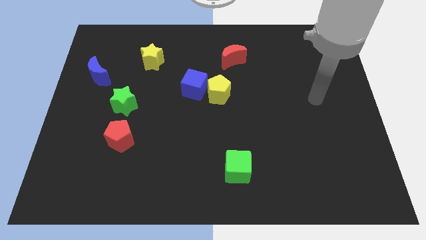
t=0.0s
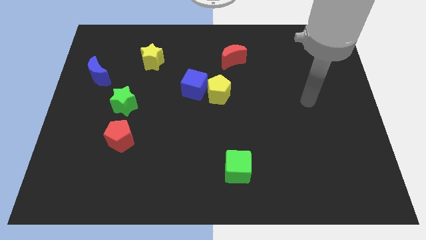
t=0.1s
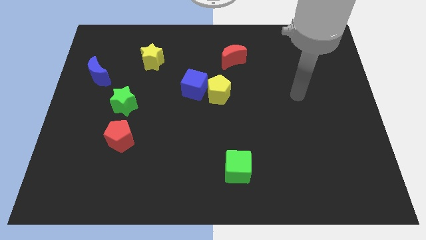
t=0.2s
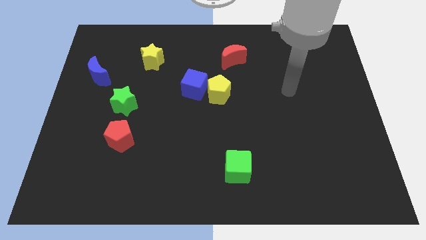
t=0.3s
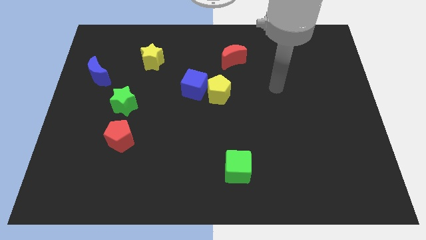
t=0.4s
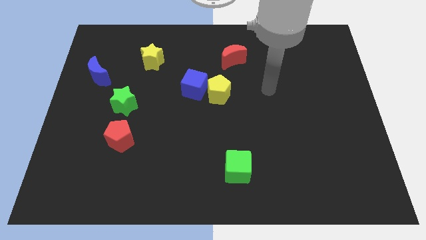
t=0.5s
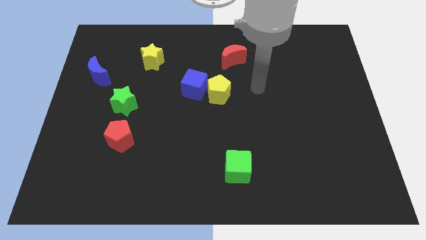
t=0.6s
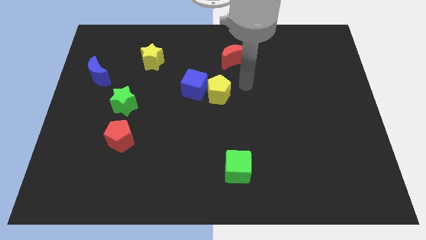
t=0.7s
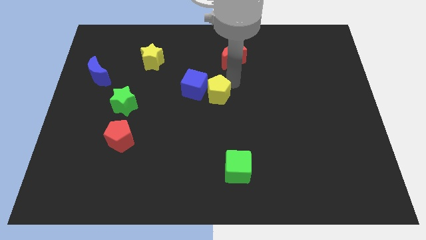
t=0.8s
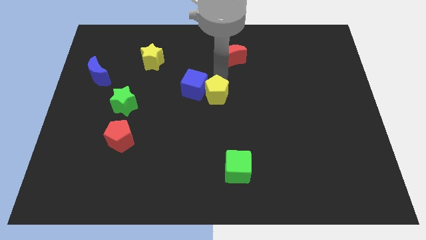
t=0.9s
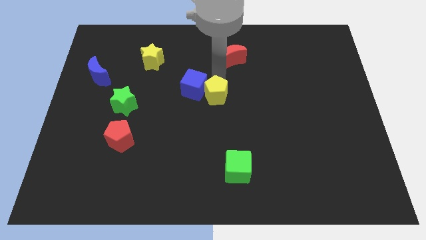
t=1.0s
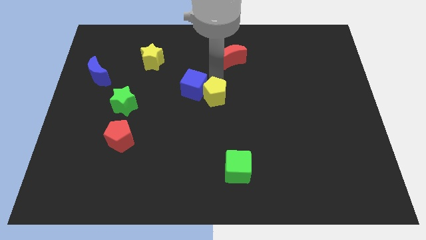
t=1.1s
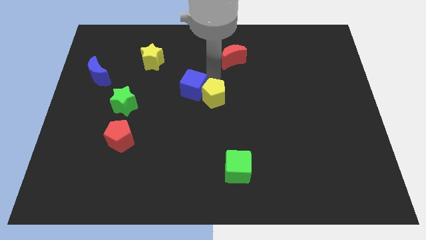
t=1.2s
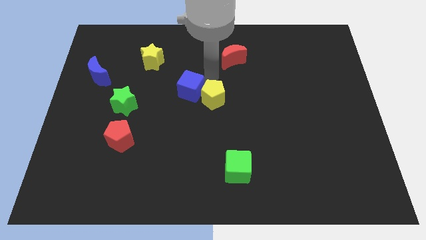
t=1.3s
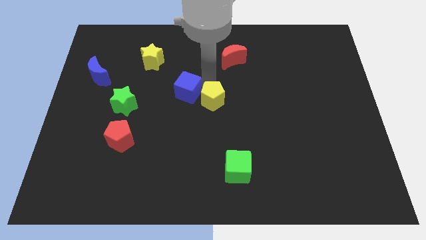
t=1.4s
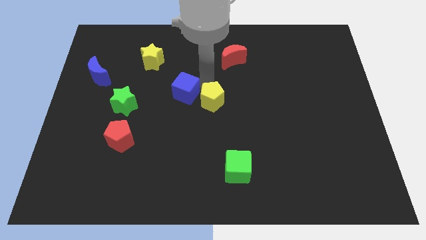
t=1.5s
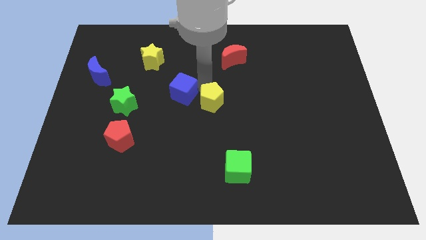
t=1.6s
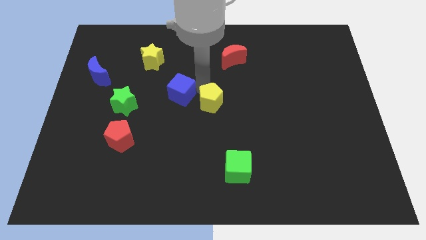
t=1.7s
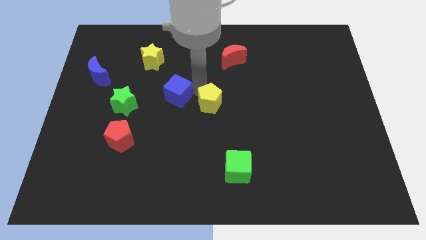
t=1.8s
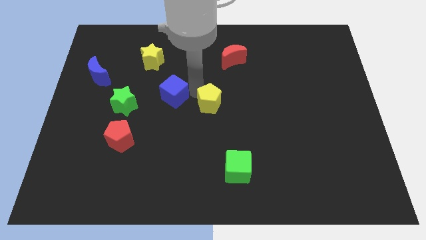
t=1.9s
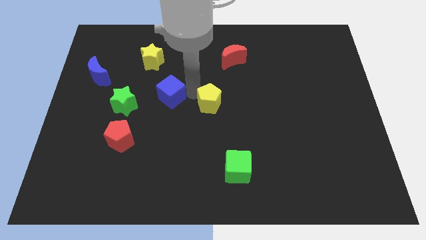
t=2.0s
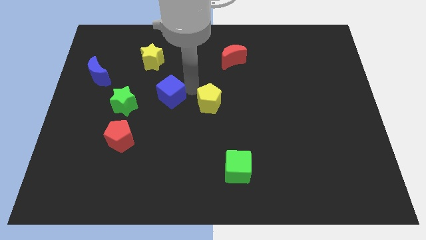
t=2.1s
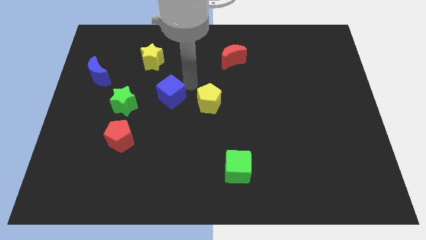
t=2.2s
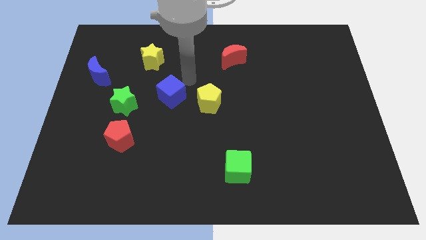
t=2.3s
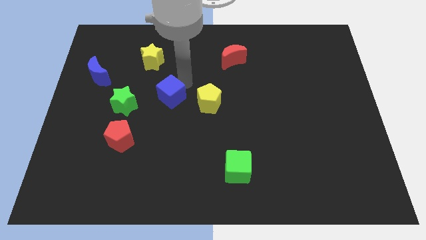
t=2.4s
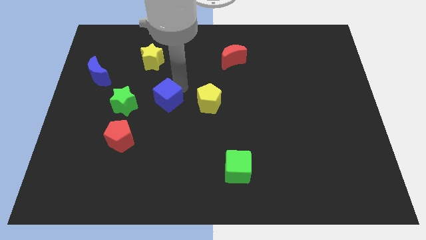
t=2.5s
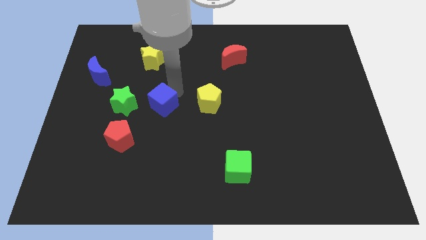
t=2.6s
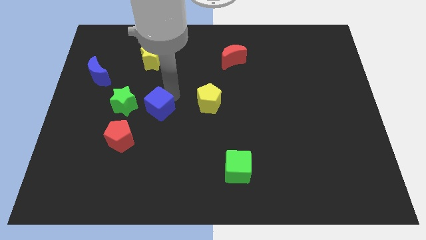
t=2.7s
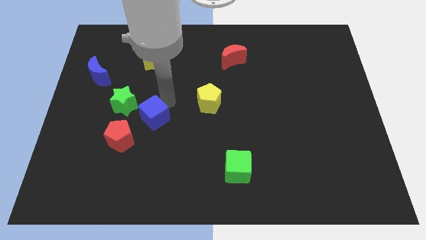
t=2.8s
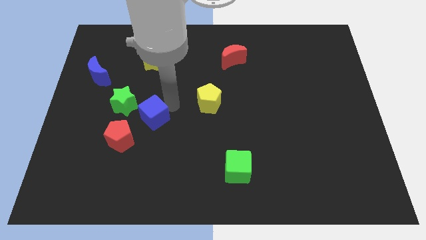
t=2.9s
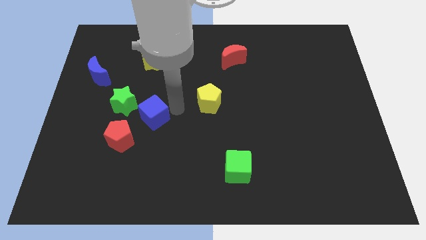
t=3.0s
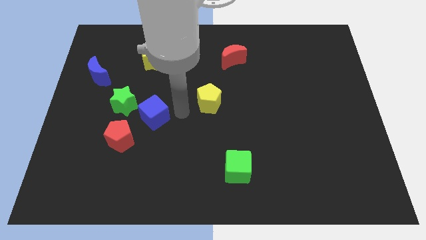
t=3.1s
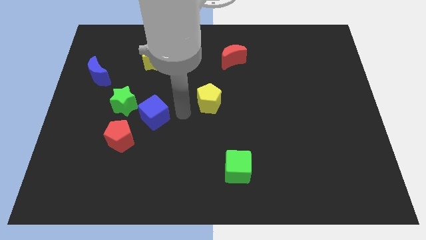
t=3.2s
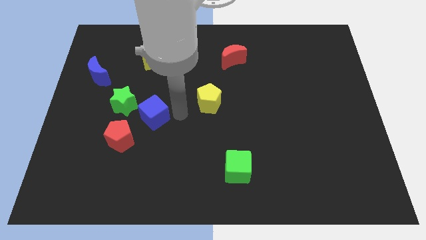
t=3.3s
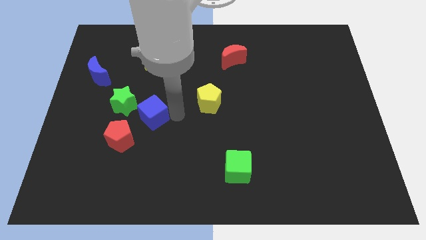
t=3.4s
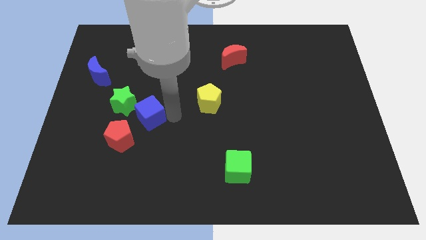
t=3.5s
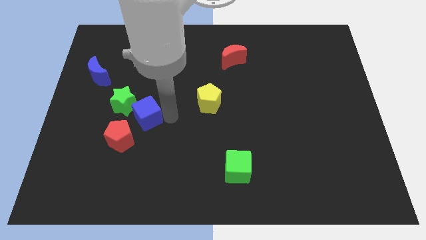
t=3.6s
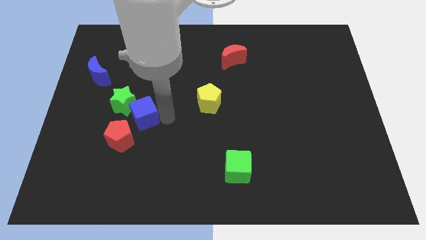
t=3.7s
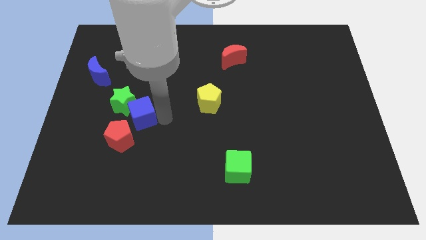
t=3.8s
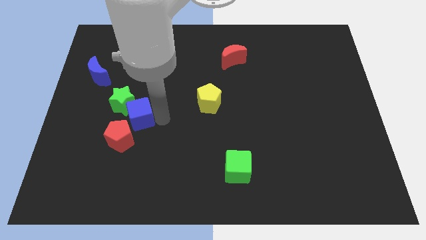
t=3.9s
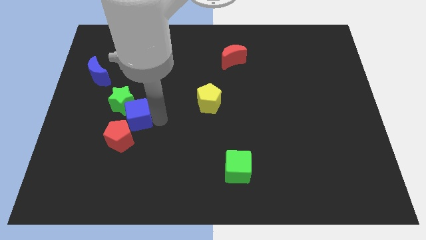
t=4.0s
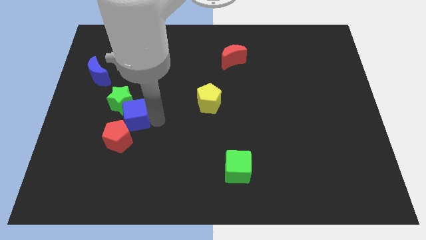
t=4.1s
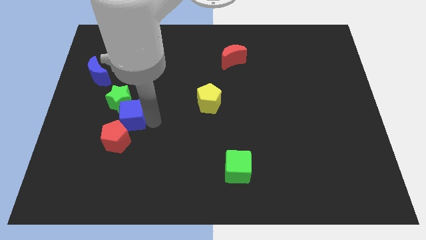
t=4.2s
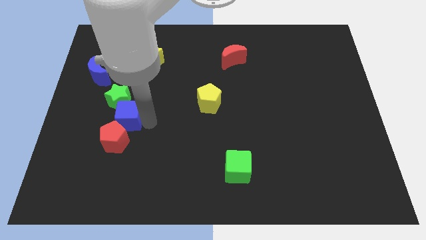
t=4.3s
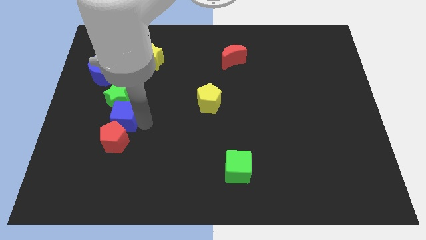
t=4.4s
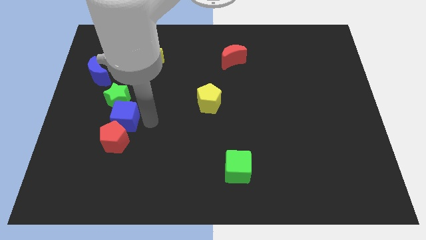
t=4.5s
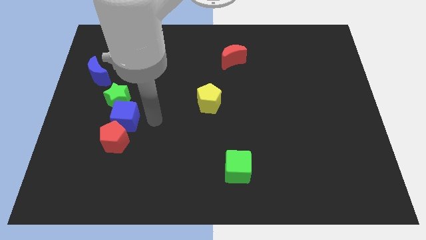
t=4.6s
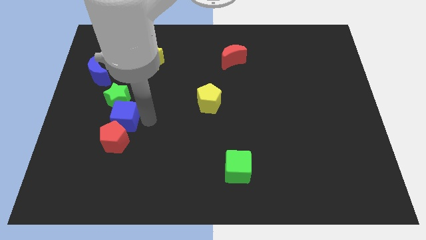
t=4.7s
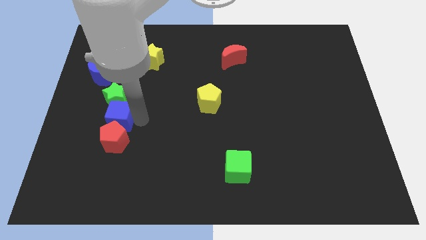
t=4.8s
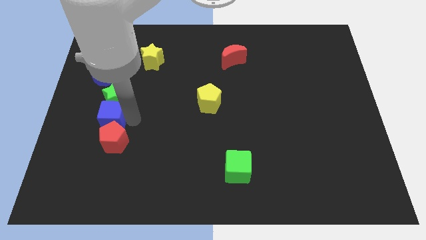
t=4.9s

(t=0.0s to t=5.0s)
move the blue cube diagonally down and to the left of the green star

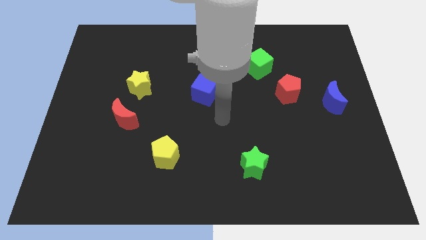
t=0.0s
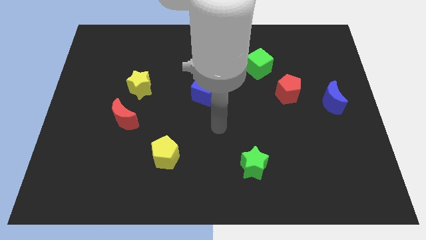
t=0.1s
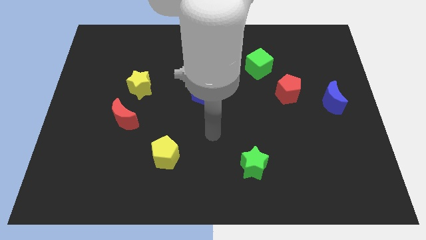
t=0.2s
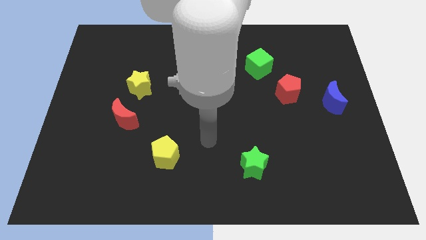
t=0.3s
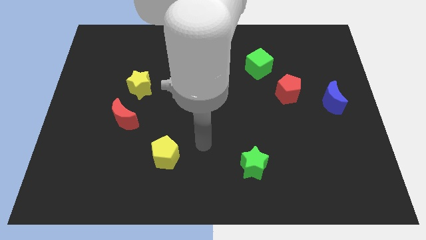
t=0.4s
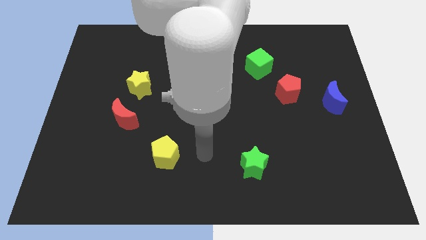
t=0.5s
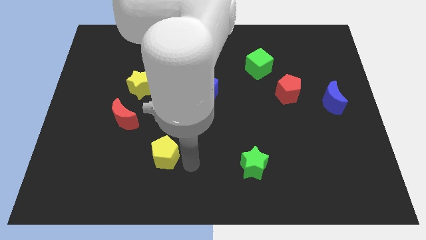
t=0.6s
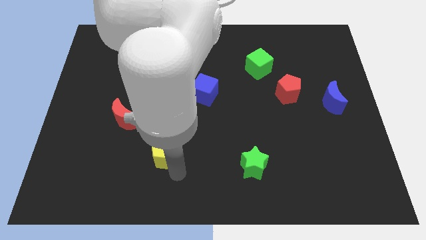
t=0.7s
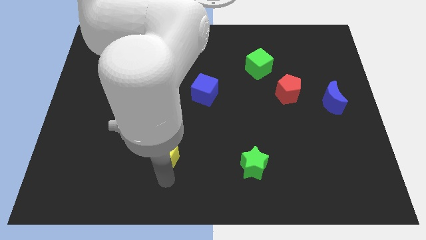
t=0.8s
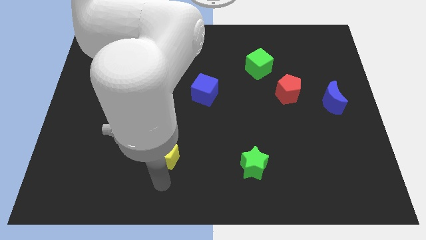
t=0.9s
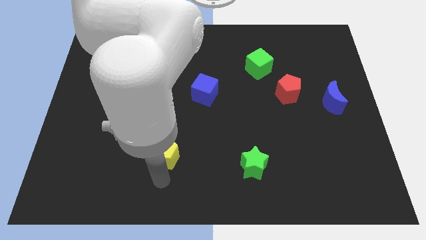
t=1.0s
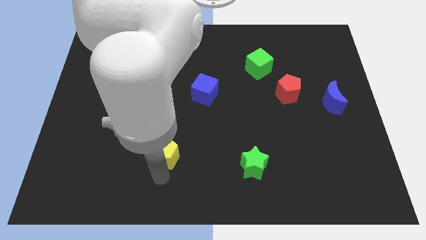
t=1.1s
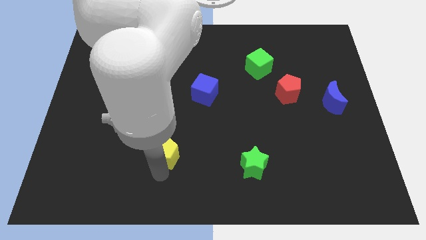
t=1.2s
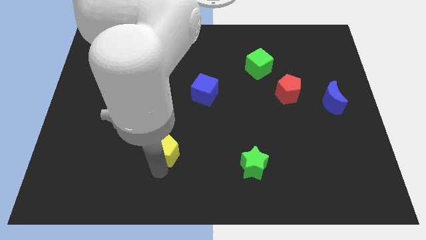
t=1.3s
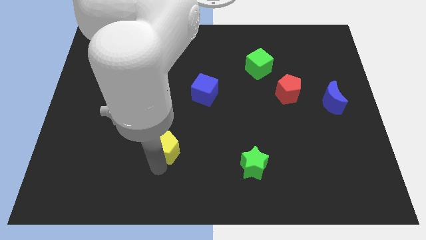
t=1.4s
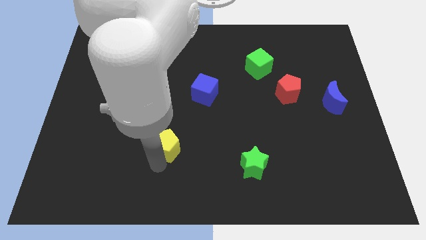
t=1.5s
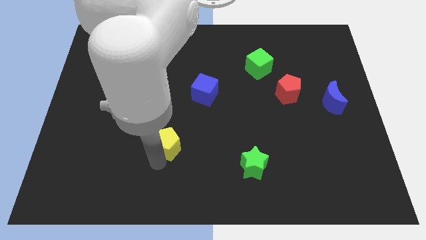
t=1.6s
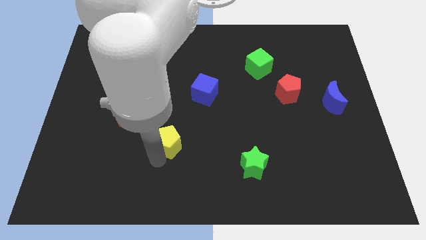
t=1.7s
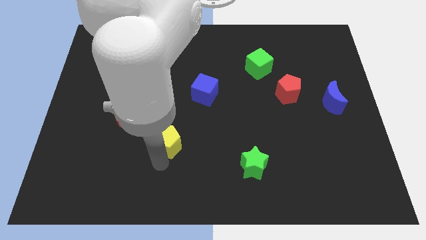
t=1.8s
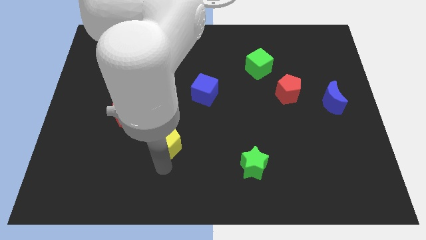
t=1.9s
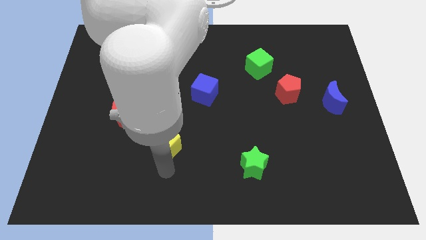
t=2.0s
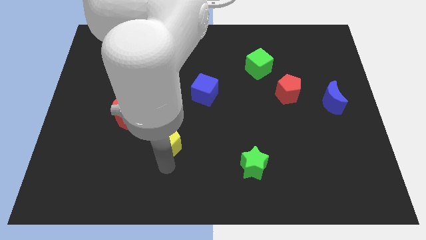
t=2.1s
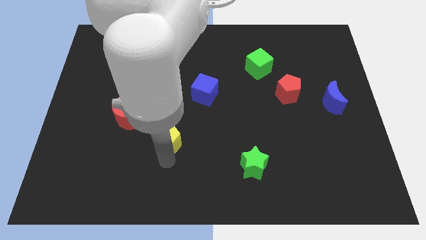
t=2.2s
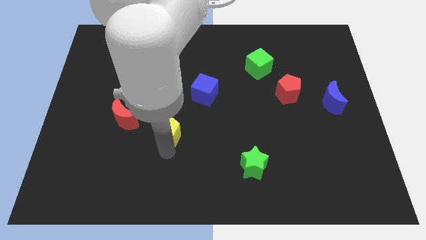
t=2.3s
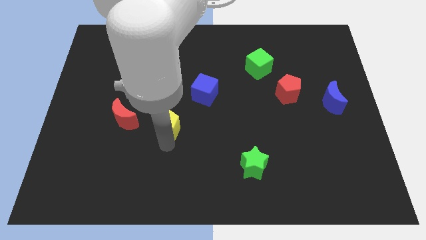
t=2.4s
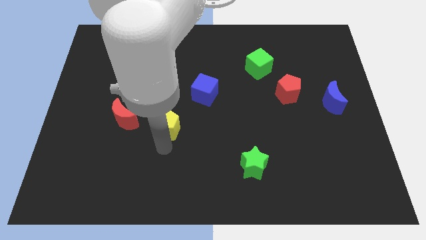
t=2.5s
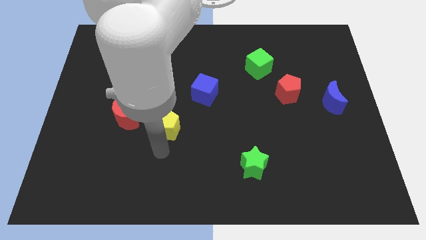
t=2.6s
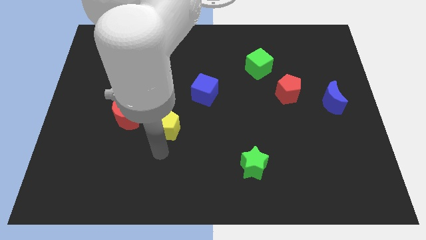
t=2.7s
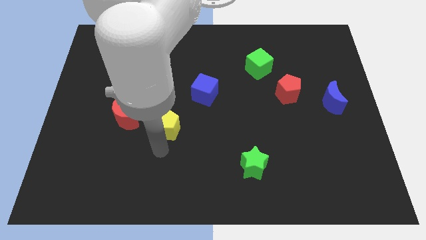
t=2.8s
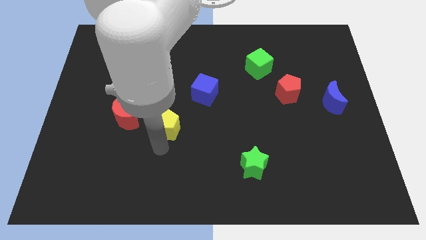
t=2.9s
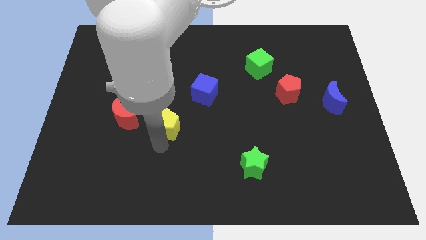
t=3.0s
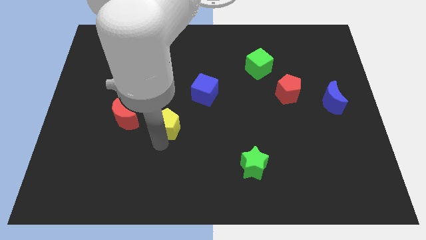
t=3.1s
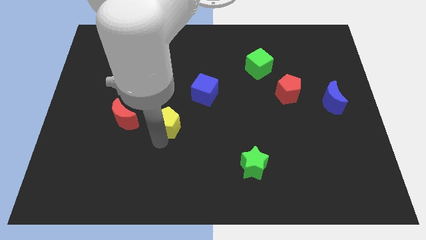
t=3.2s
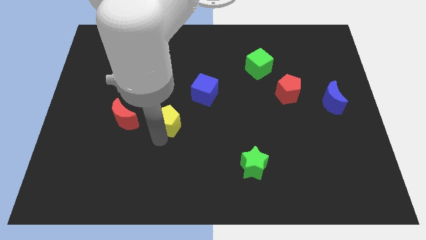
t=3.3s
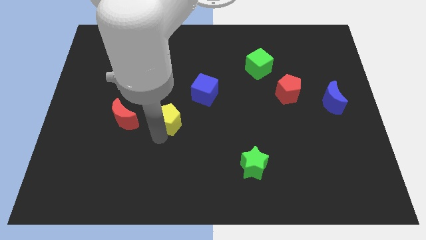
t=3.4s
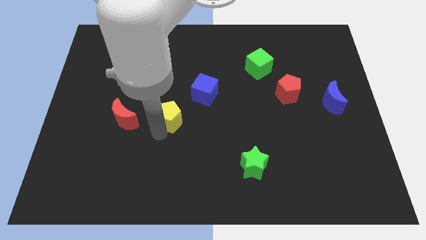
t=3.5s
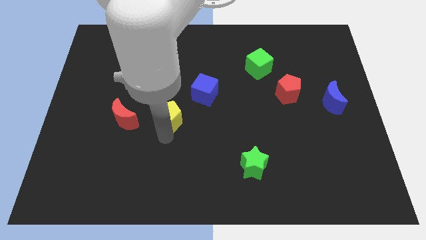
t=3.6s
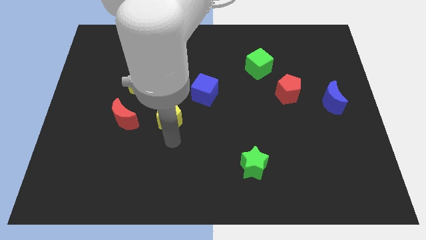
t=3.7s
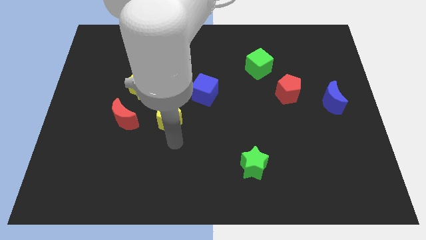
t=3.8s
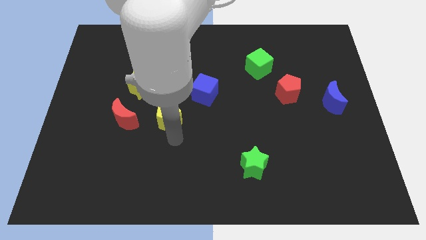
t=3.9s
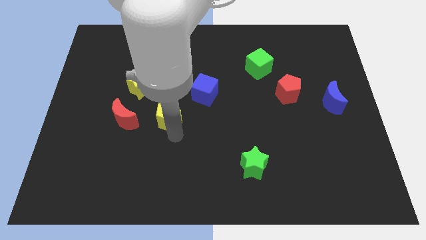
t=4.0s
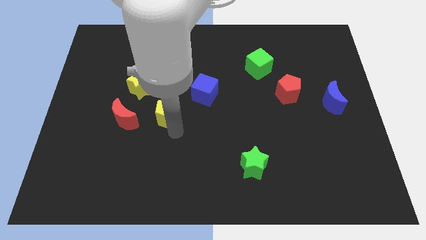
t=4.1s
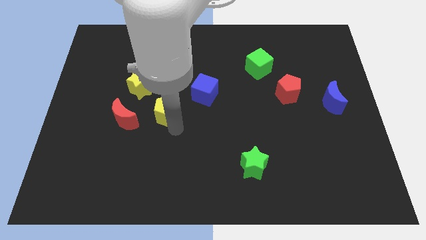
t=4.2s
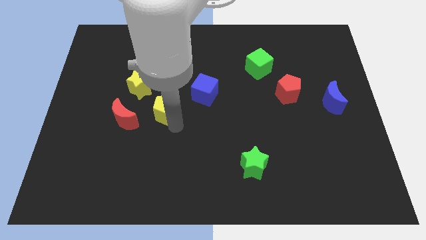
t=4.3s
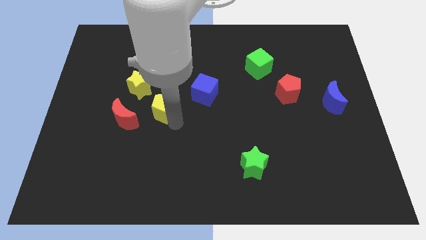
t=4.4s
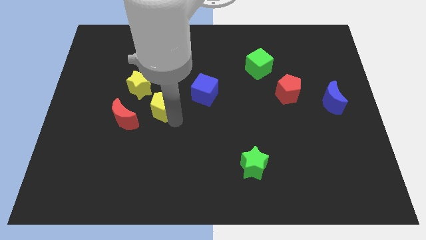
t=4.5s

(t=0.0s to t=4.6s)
put the yellow pentagon to the left of the blue cube
